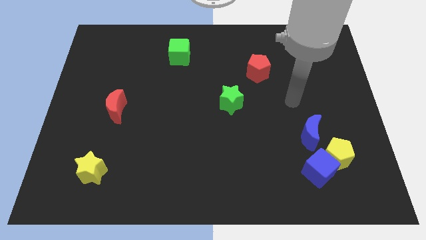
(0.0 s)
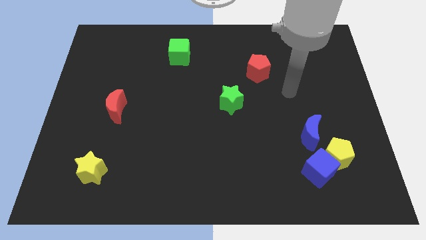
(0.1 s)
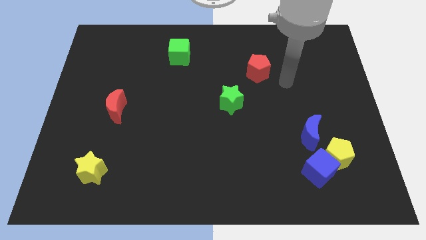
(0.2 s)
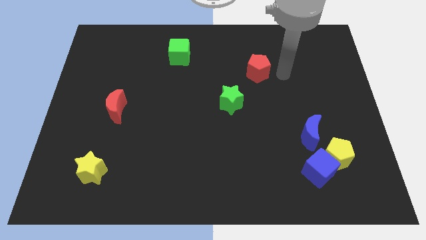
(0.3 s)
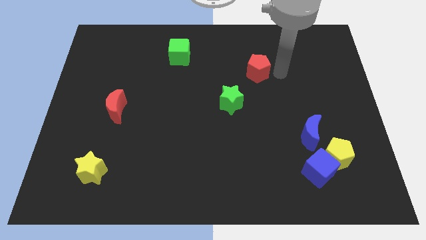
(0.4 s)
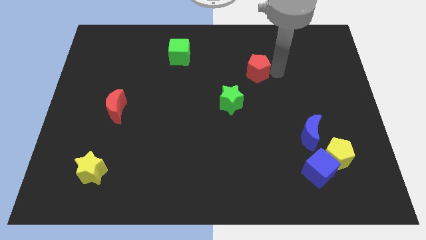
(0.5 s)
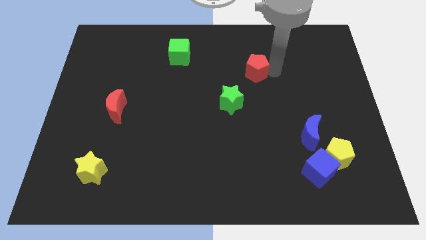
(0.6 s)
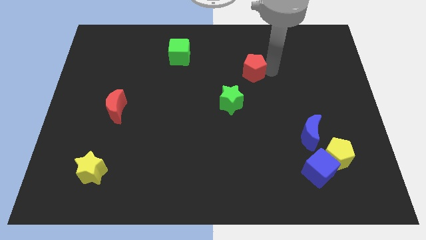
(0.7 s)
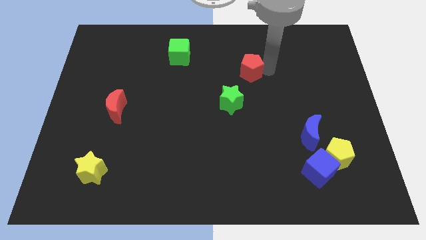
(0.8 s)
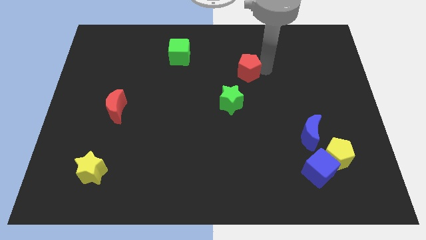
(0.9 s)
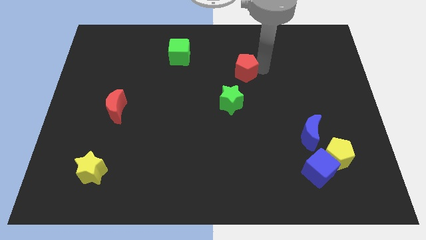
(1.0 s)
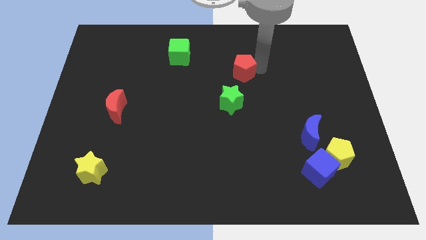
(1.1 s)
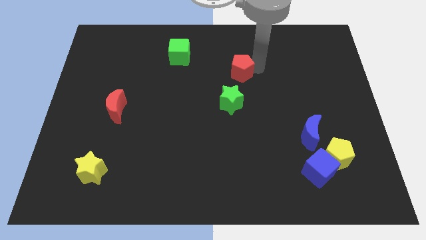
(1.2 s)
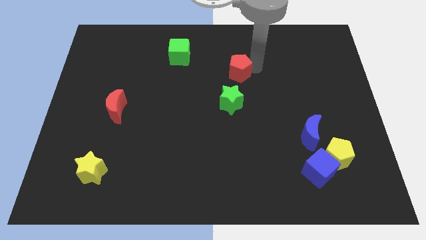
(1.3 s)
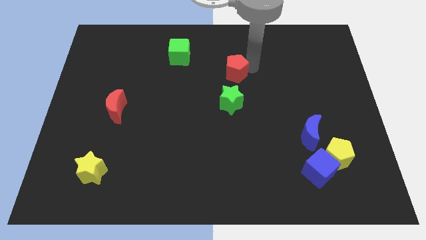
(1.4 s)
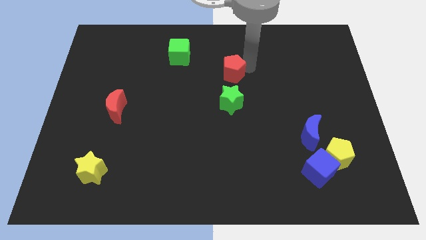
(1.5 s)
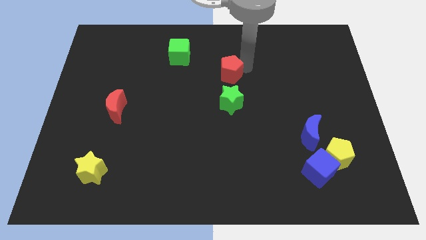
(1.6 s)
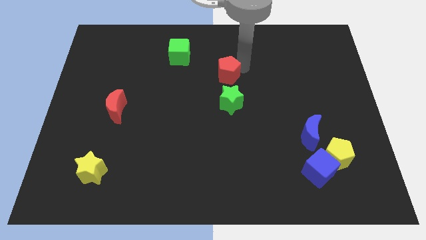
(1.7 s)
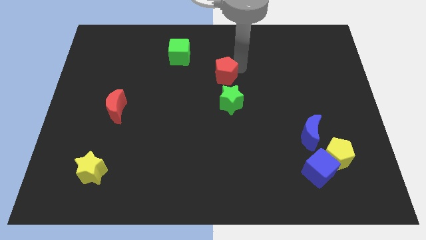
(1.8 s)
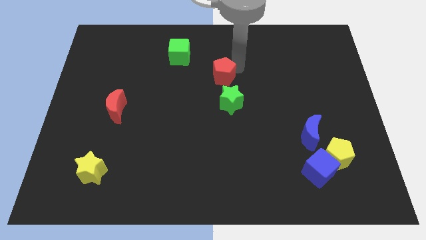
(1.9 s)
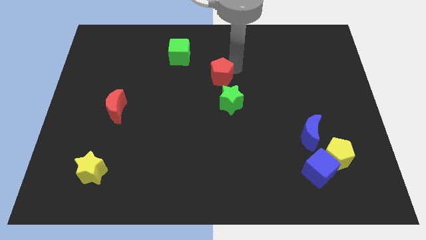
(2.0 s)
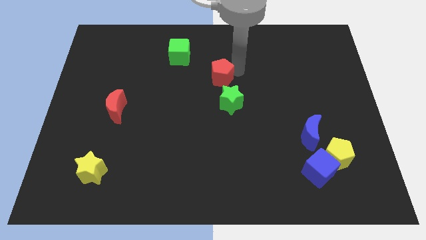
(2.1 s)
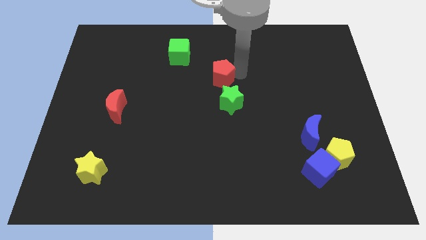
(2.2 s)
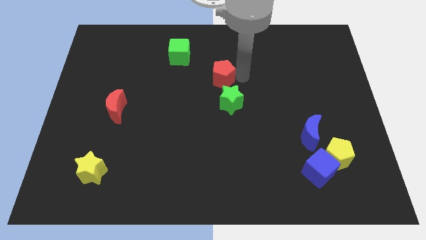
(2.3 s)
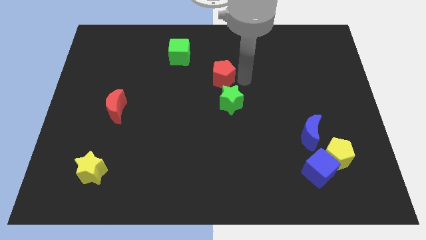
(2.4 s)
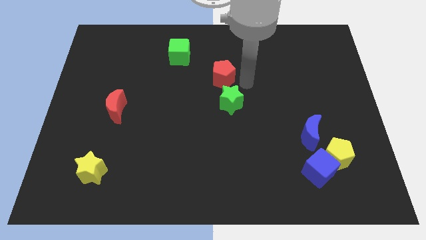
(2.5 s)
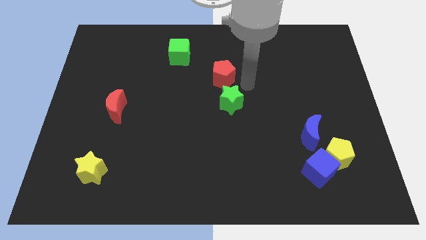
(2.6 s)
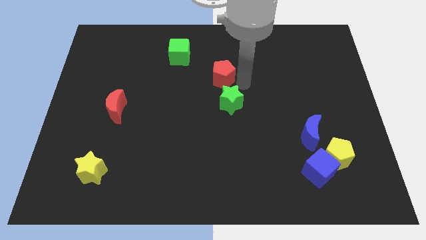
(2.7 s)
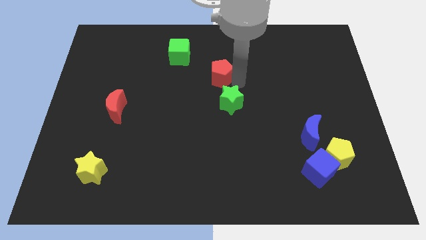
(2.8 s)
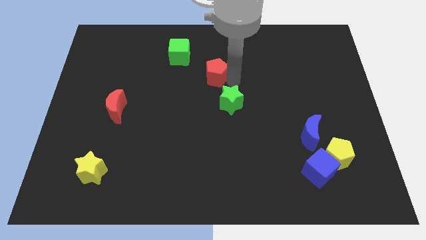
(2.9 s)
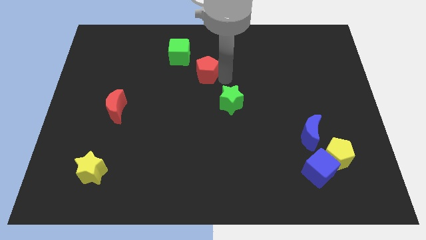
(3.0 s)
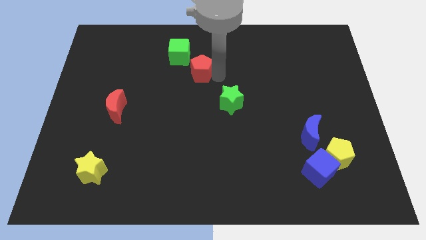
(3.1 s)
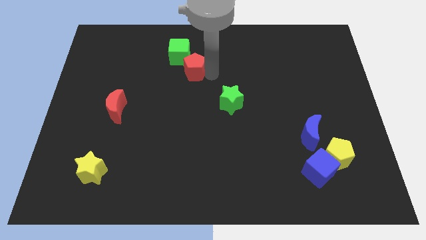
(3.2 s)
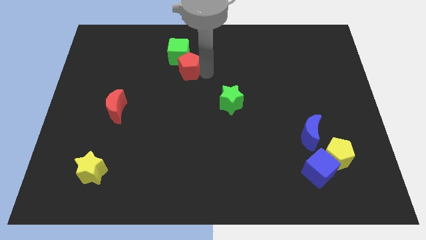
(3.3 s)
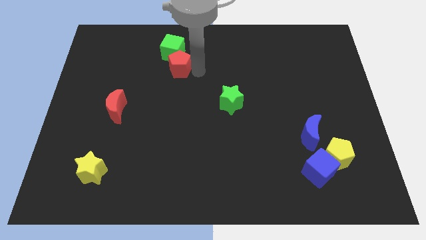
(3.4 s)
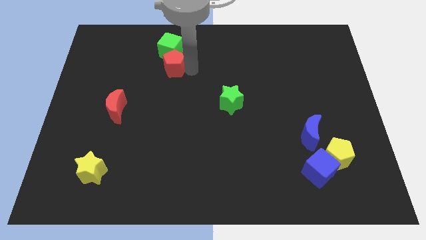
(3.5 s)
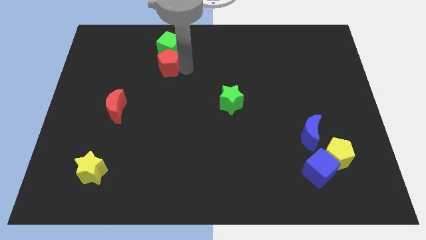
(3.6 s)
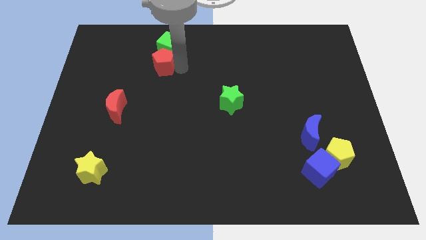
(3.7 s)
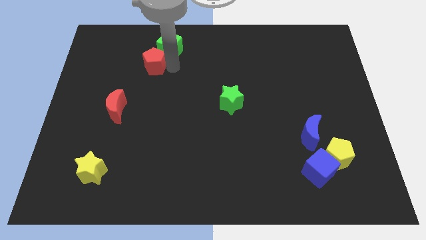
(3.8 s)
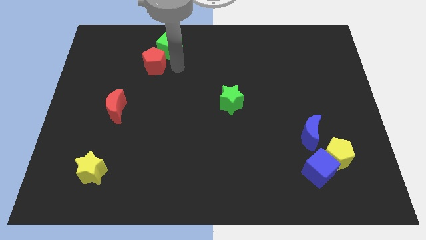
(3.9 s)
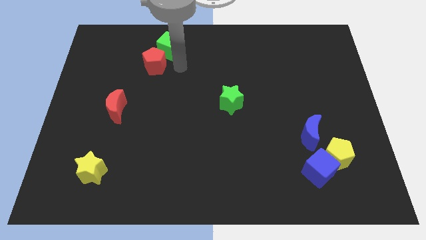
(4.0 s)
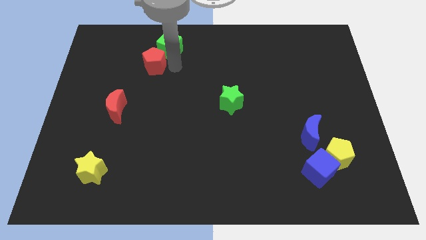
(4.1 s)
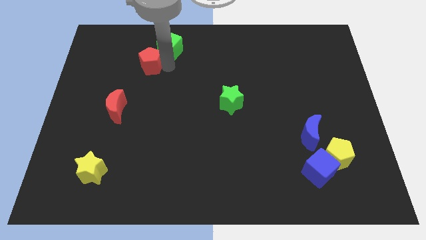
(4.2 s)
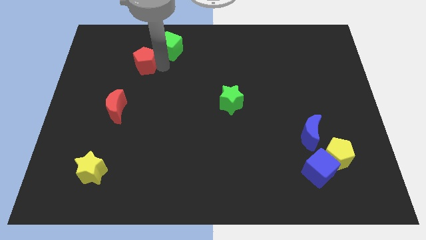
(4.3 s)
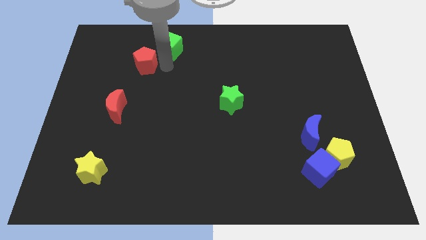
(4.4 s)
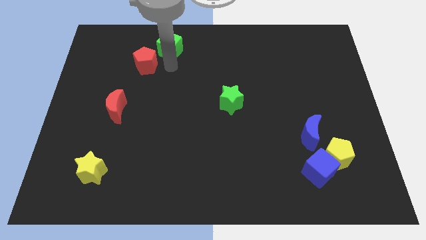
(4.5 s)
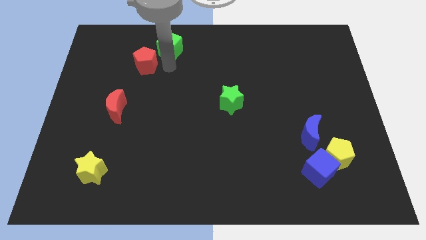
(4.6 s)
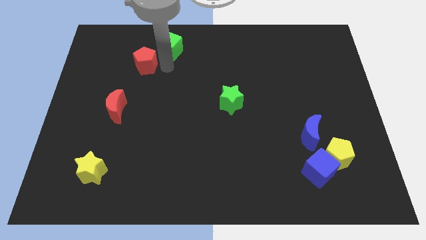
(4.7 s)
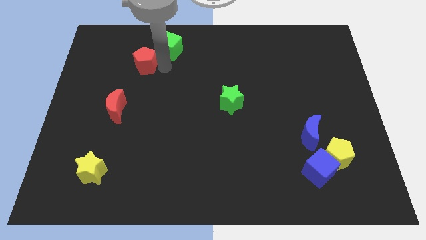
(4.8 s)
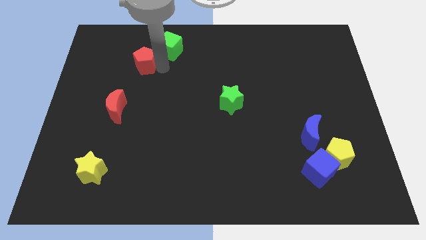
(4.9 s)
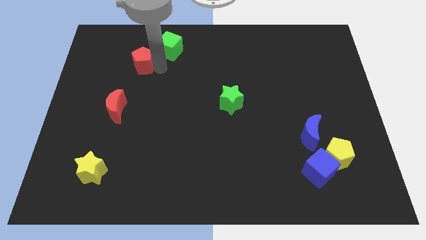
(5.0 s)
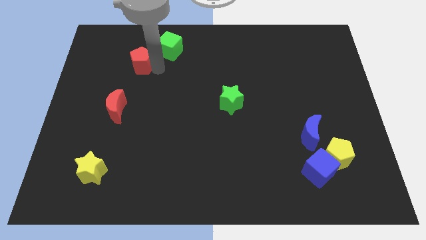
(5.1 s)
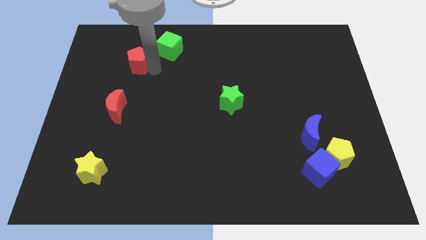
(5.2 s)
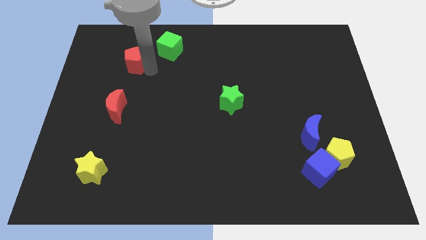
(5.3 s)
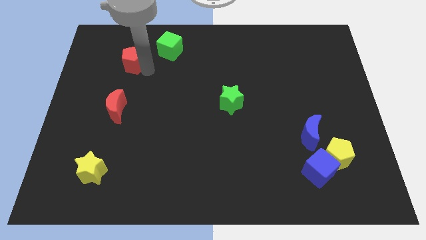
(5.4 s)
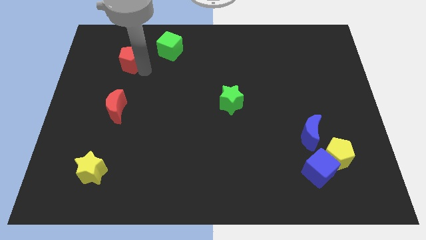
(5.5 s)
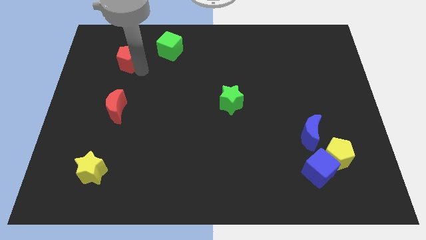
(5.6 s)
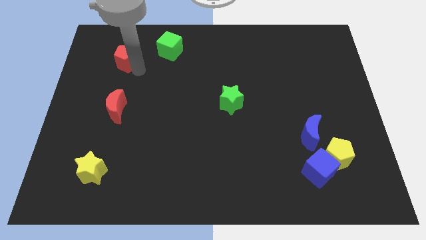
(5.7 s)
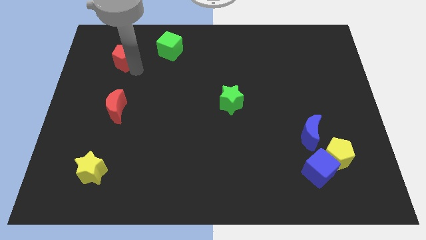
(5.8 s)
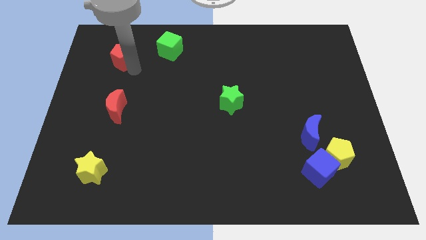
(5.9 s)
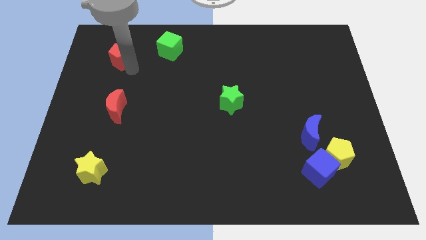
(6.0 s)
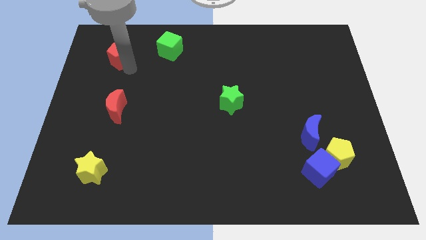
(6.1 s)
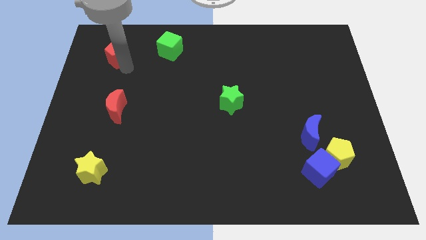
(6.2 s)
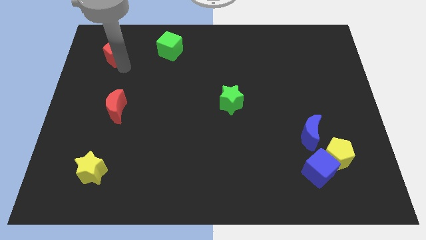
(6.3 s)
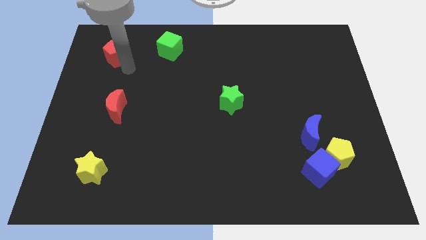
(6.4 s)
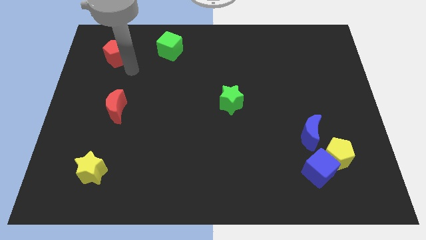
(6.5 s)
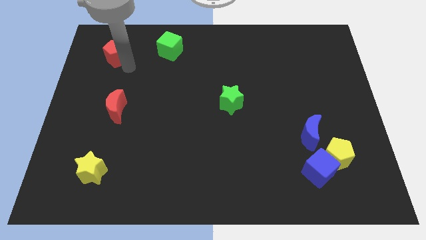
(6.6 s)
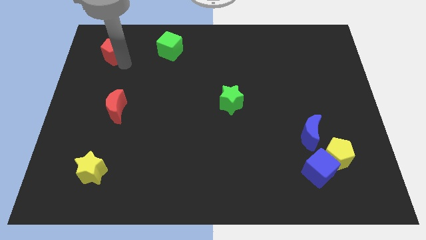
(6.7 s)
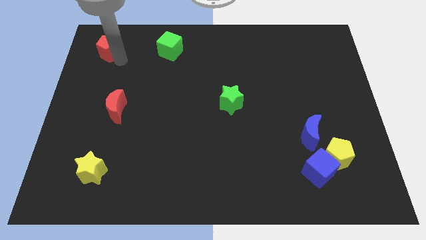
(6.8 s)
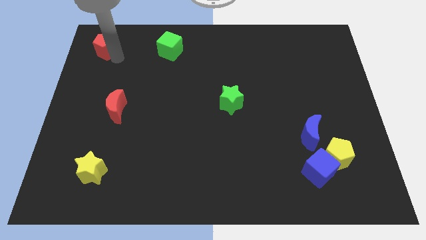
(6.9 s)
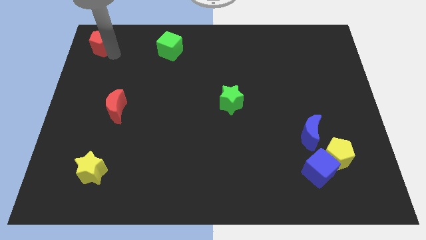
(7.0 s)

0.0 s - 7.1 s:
push the red pentagon to the top left corner

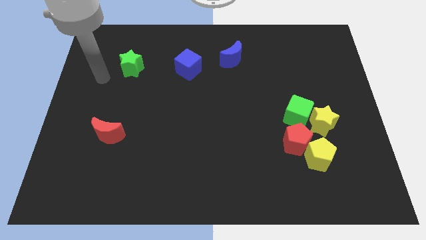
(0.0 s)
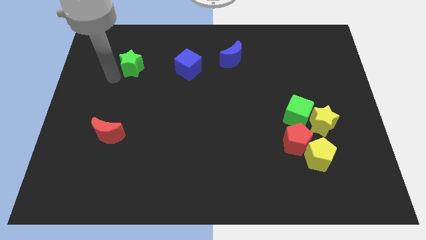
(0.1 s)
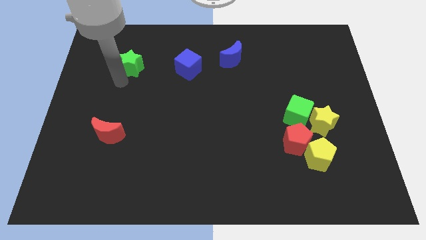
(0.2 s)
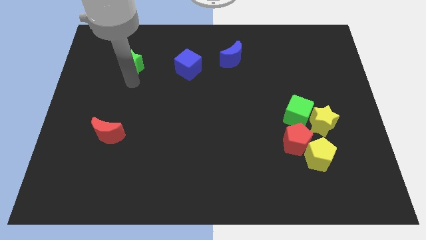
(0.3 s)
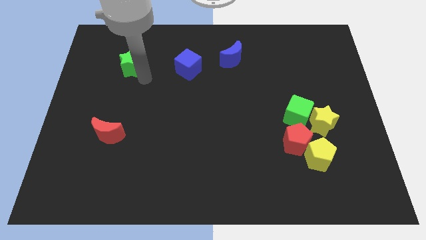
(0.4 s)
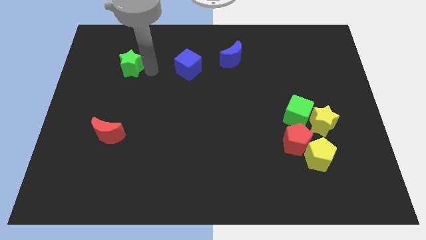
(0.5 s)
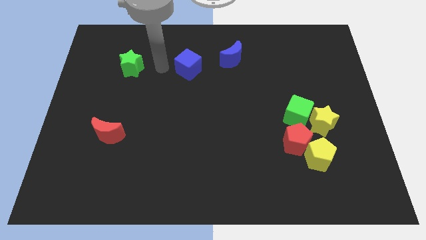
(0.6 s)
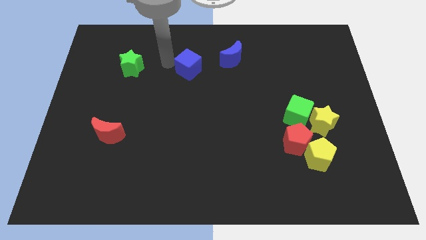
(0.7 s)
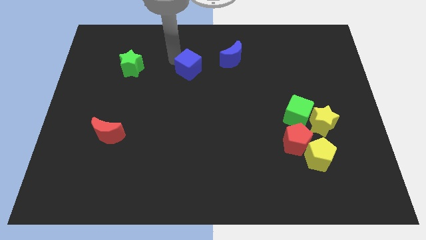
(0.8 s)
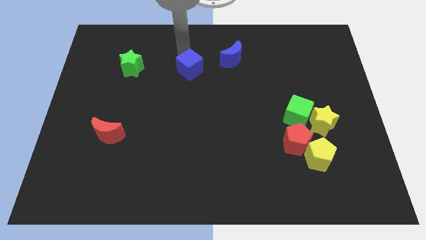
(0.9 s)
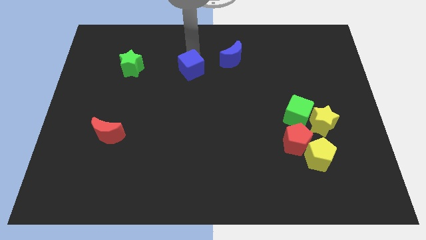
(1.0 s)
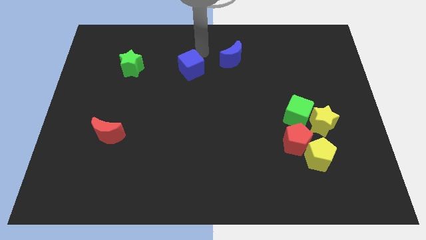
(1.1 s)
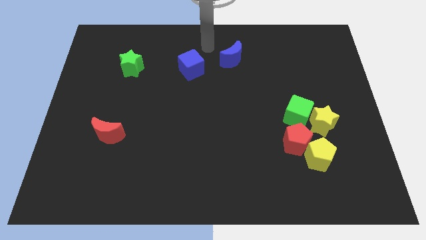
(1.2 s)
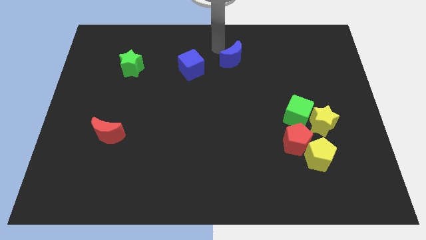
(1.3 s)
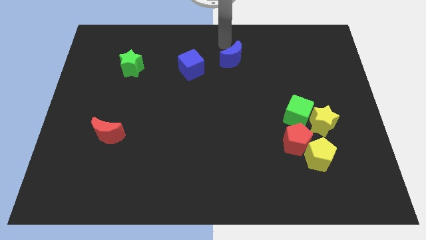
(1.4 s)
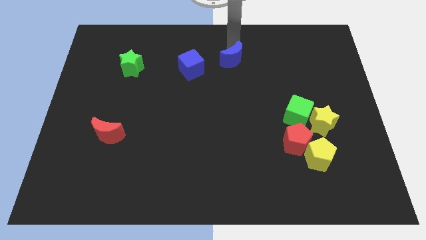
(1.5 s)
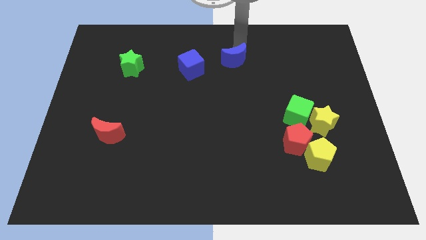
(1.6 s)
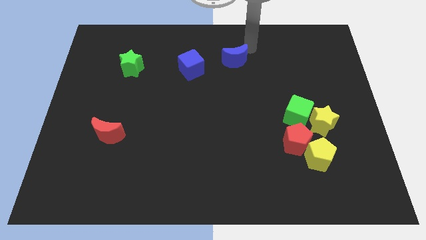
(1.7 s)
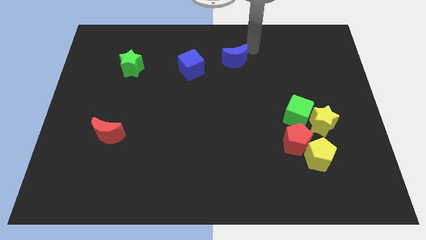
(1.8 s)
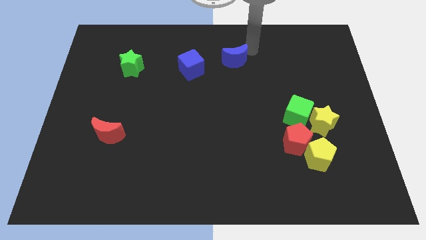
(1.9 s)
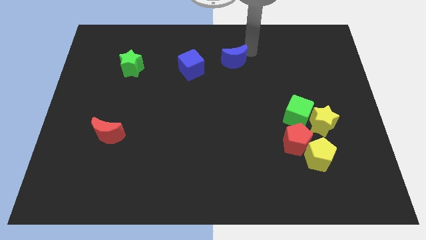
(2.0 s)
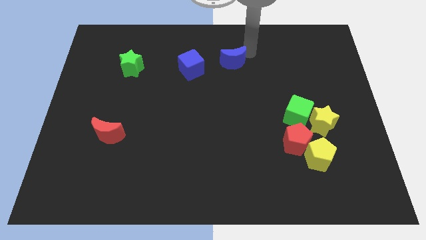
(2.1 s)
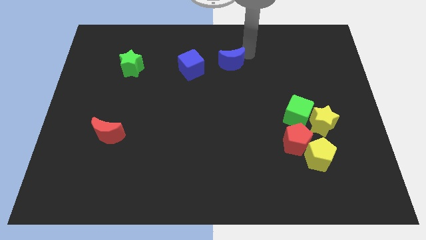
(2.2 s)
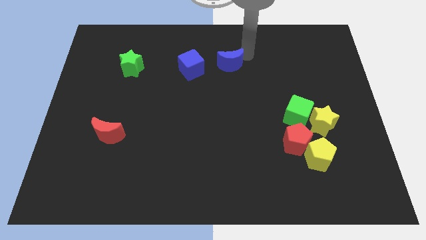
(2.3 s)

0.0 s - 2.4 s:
push the blue moon to the center of the board
